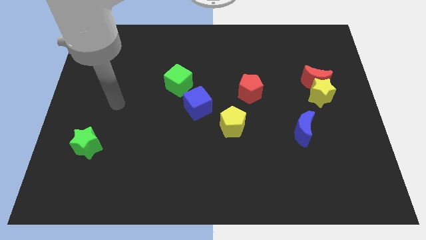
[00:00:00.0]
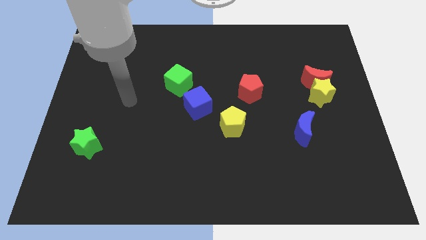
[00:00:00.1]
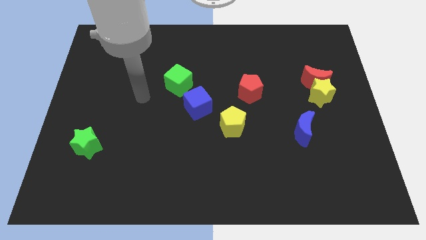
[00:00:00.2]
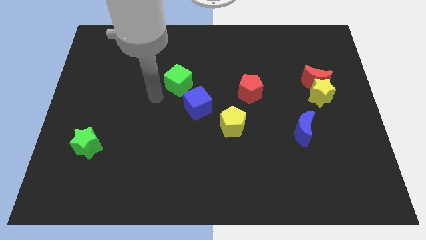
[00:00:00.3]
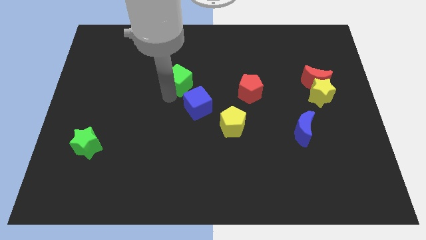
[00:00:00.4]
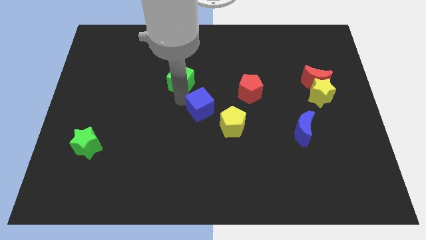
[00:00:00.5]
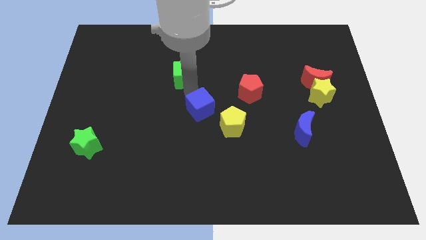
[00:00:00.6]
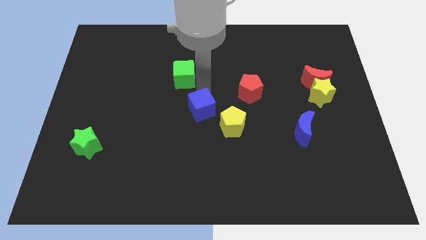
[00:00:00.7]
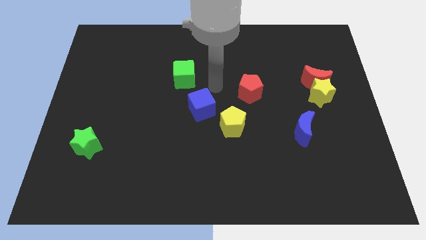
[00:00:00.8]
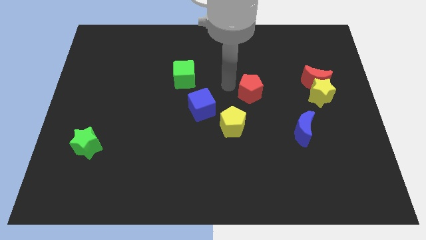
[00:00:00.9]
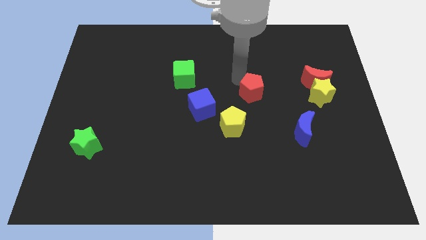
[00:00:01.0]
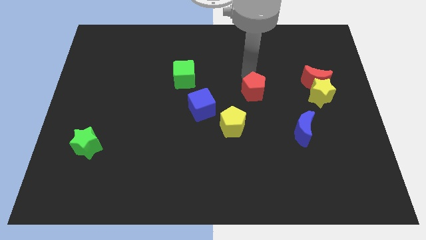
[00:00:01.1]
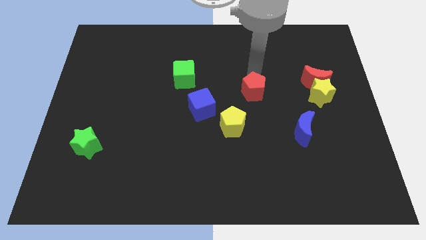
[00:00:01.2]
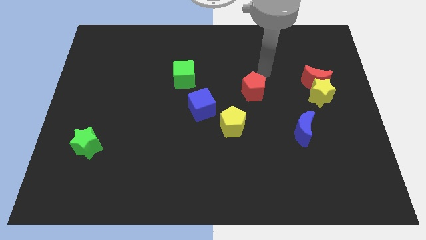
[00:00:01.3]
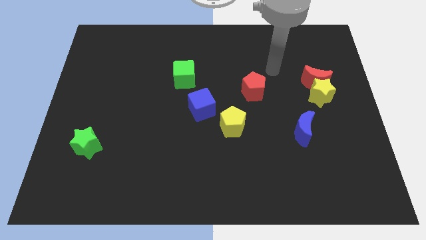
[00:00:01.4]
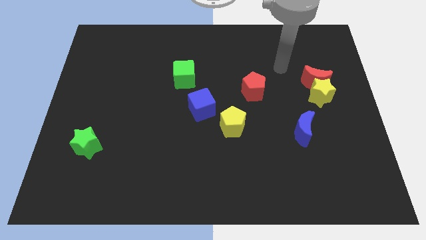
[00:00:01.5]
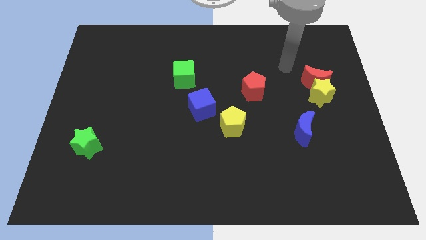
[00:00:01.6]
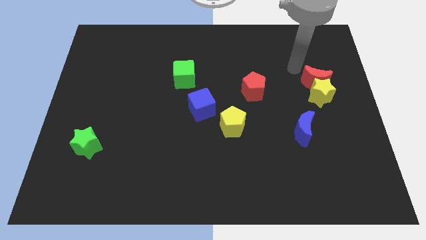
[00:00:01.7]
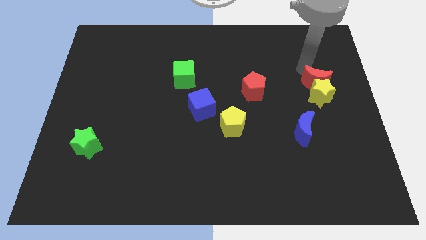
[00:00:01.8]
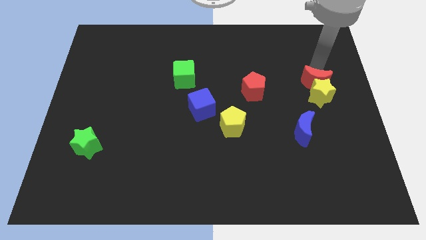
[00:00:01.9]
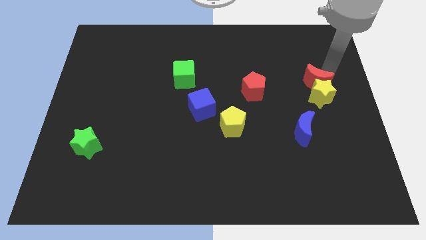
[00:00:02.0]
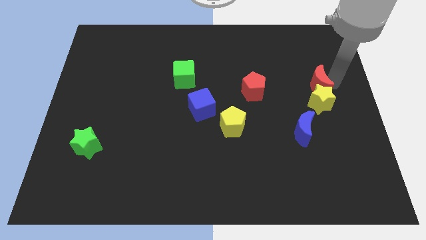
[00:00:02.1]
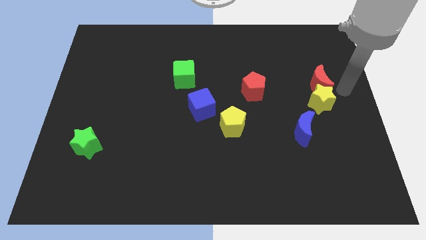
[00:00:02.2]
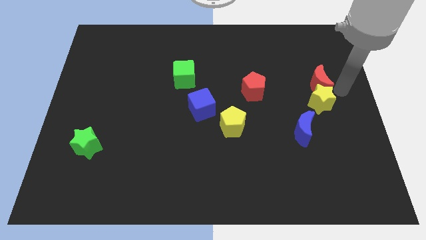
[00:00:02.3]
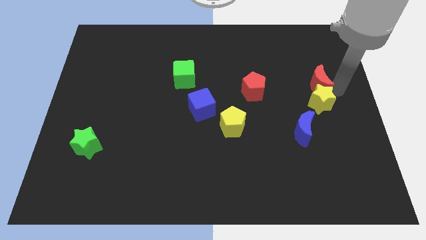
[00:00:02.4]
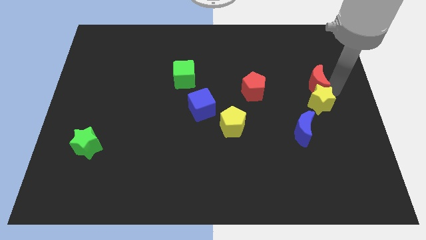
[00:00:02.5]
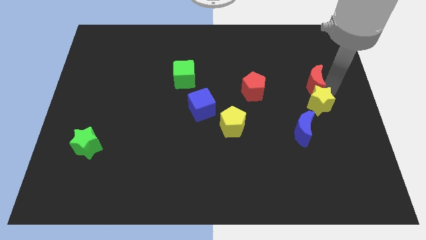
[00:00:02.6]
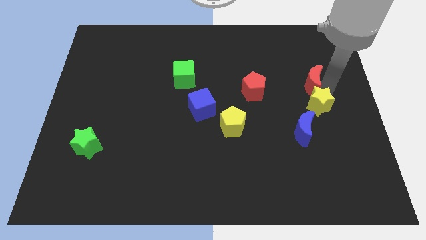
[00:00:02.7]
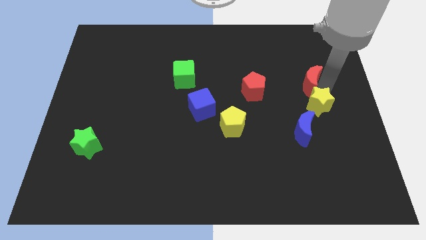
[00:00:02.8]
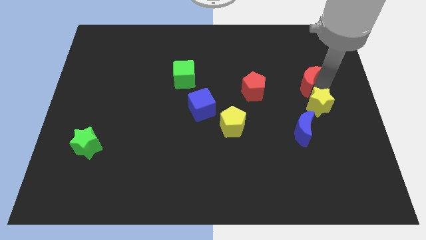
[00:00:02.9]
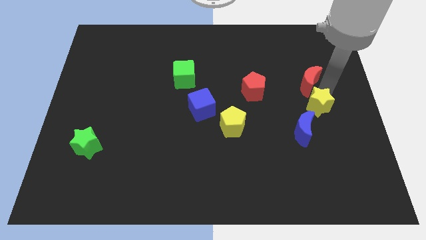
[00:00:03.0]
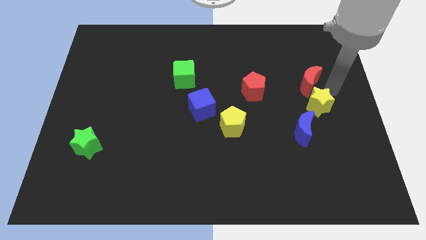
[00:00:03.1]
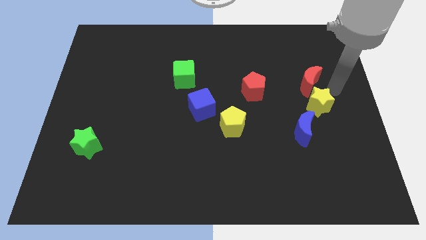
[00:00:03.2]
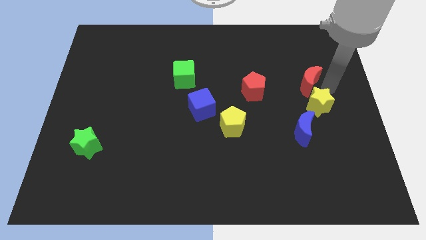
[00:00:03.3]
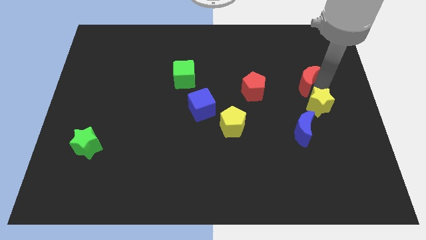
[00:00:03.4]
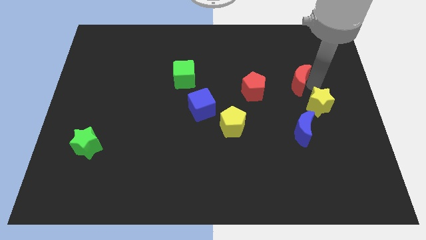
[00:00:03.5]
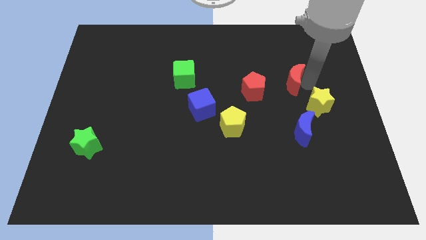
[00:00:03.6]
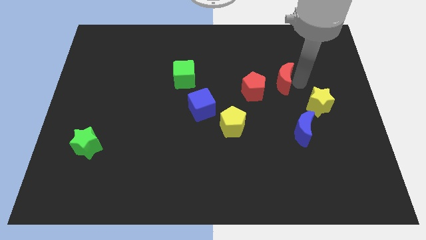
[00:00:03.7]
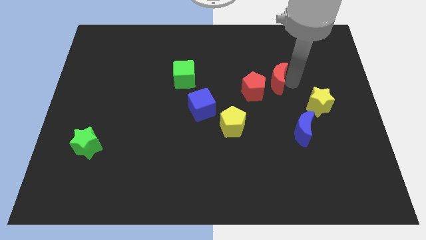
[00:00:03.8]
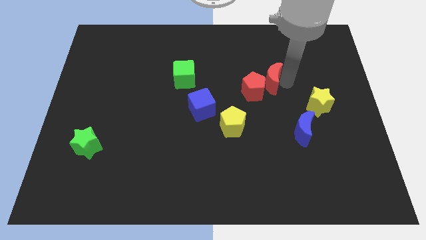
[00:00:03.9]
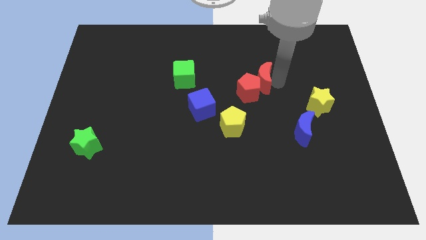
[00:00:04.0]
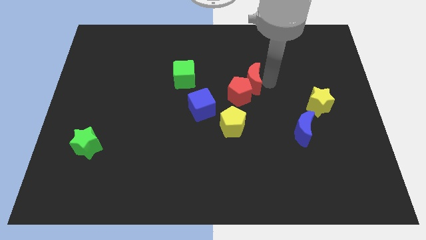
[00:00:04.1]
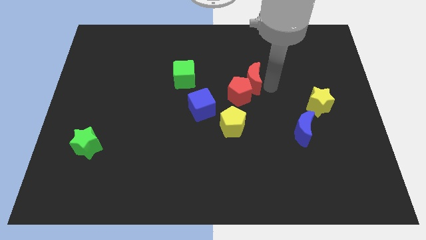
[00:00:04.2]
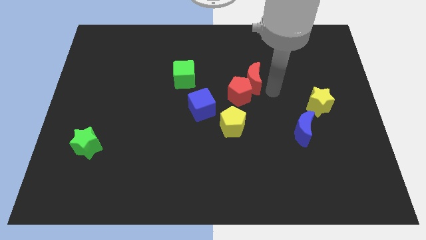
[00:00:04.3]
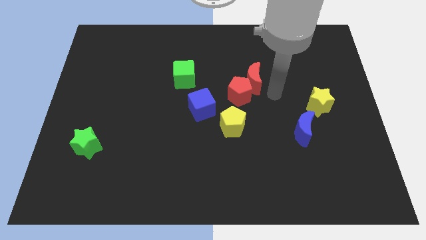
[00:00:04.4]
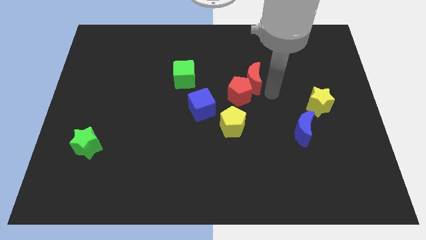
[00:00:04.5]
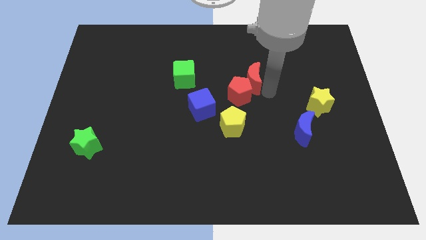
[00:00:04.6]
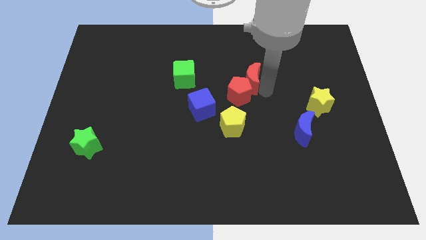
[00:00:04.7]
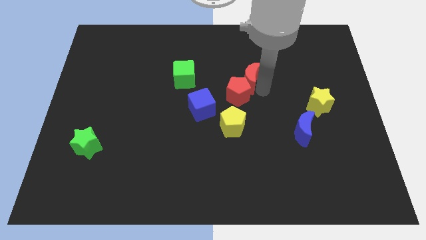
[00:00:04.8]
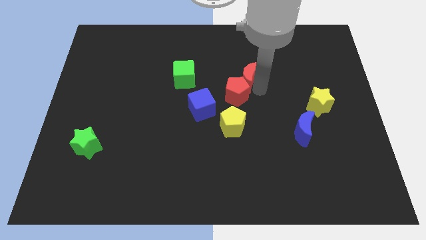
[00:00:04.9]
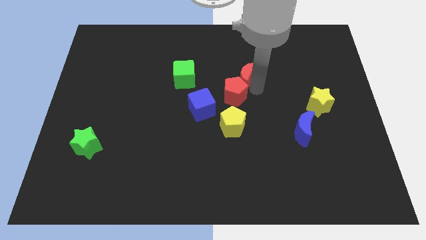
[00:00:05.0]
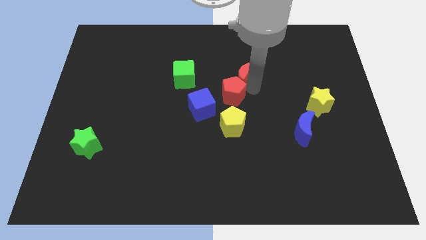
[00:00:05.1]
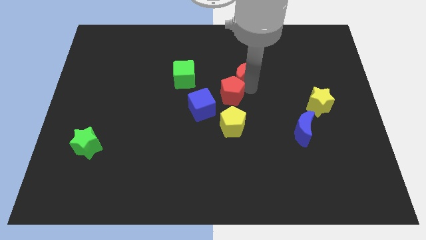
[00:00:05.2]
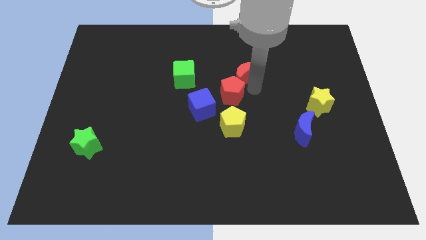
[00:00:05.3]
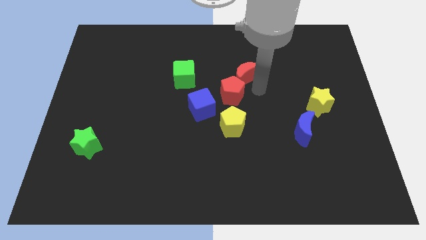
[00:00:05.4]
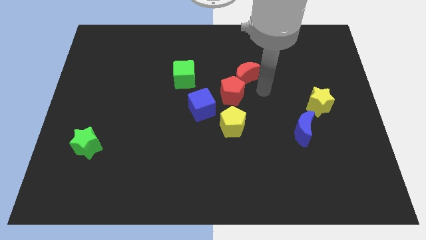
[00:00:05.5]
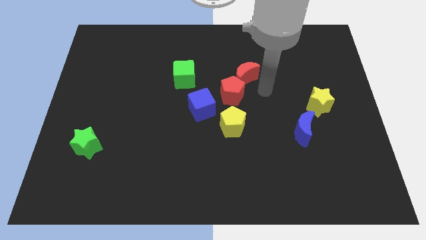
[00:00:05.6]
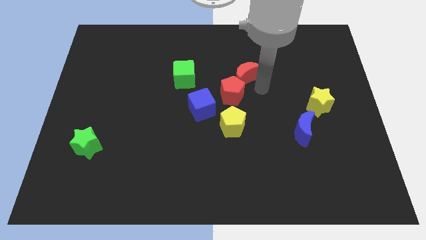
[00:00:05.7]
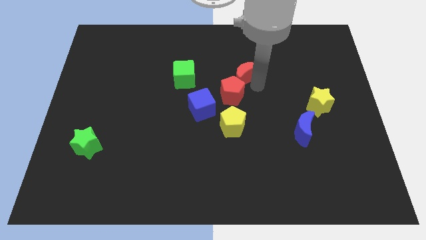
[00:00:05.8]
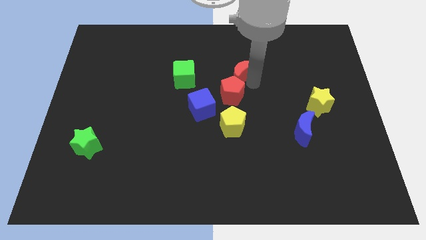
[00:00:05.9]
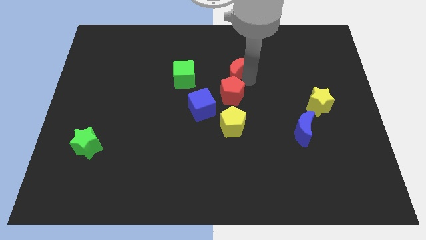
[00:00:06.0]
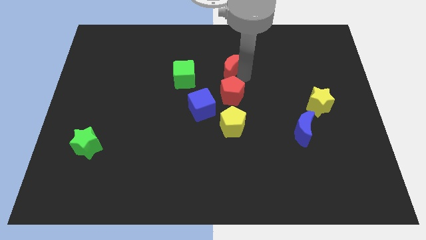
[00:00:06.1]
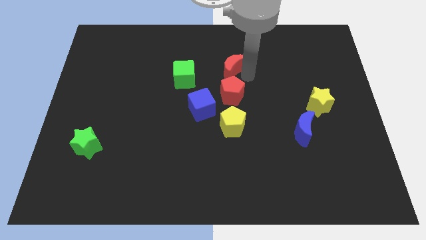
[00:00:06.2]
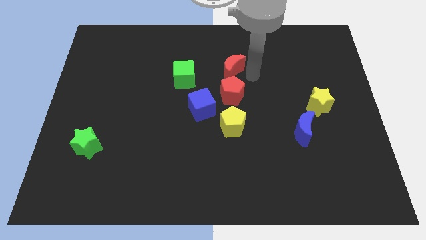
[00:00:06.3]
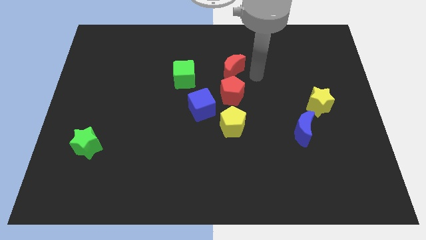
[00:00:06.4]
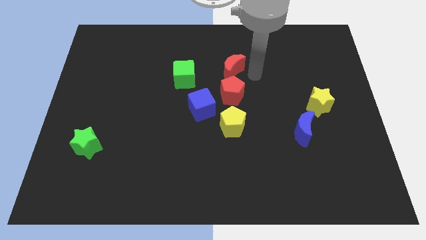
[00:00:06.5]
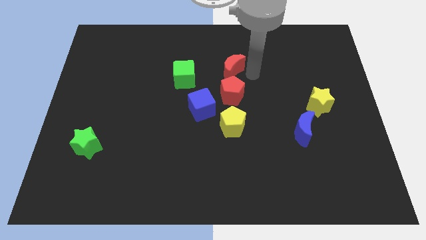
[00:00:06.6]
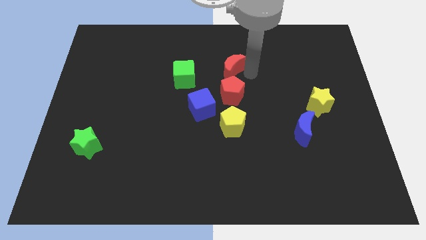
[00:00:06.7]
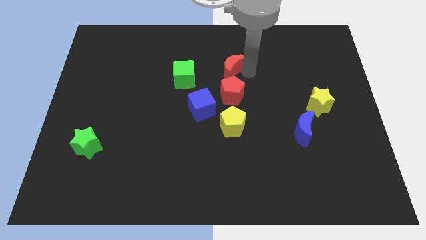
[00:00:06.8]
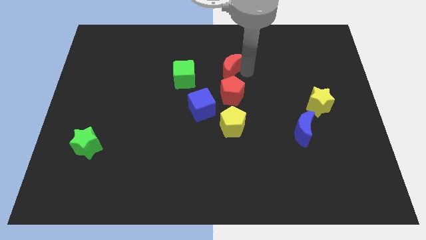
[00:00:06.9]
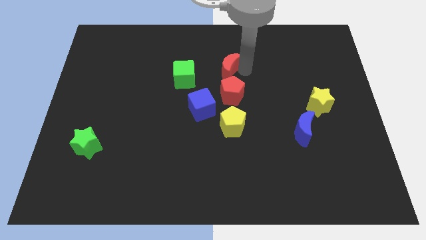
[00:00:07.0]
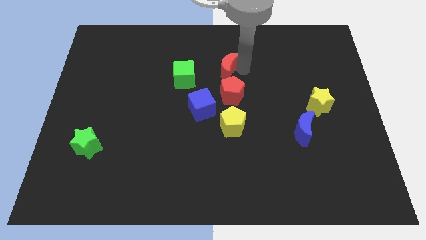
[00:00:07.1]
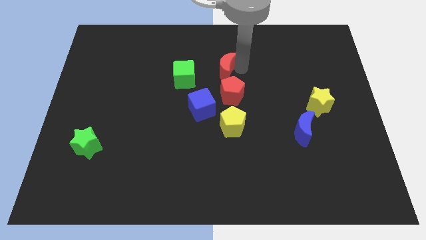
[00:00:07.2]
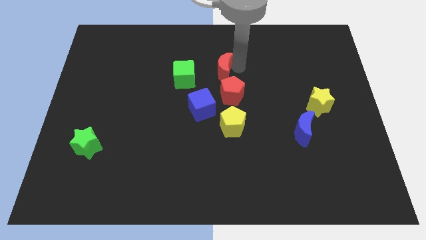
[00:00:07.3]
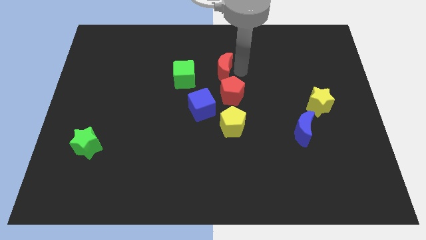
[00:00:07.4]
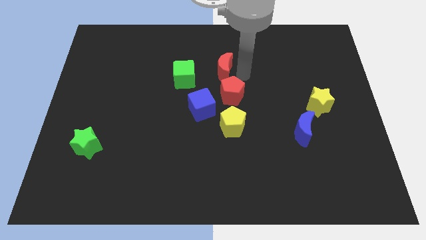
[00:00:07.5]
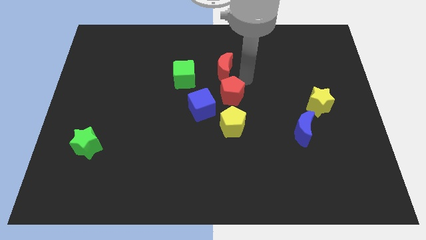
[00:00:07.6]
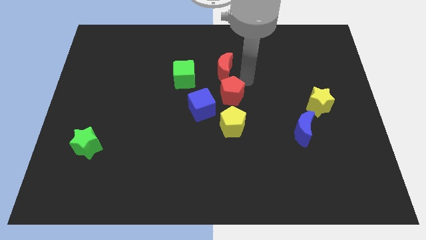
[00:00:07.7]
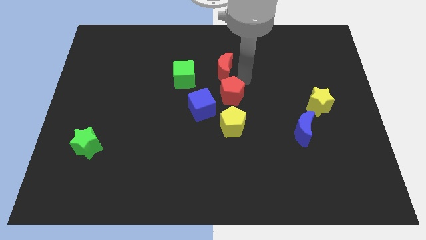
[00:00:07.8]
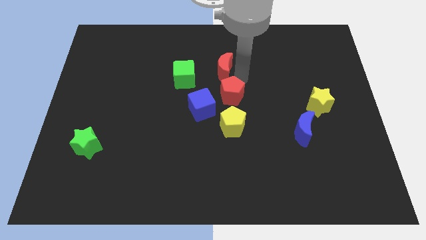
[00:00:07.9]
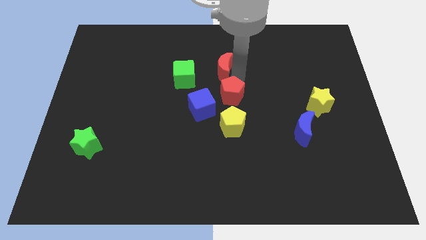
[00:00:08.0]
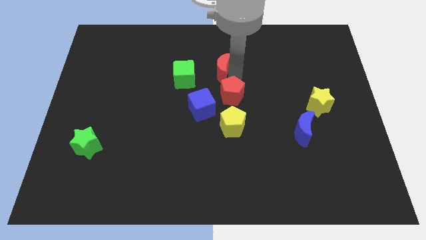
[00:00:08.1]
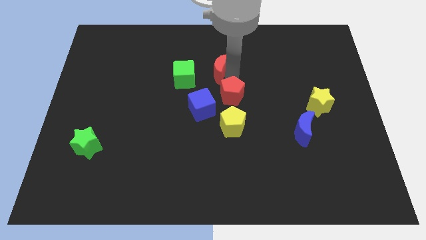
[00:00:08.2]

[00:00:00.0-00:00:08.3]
move the red moon diagonally up and to the right of the green cube
